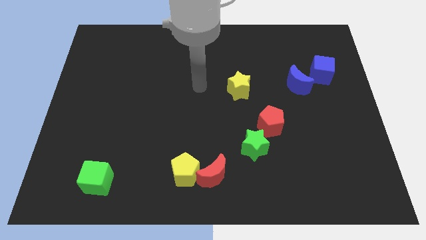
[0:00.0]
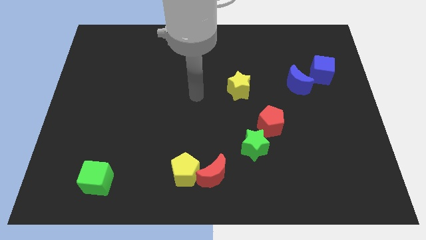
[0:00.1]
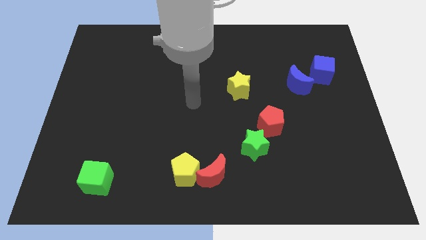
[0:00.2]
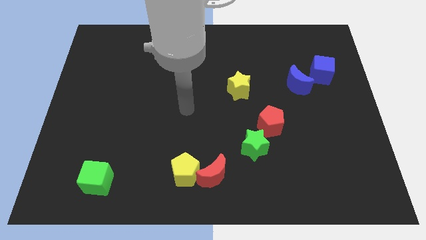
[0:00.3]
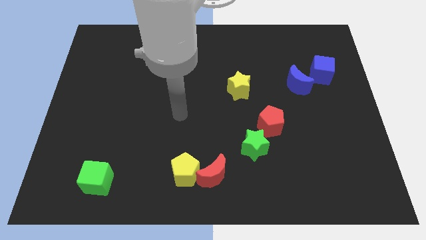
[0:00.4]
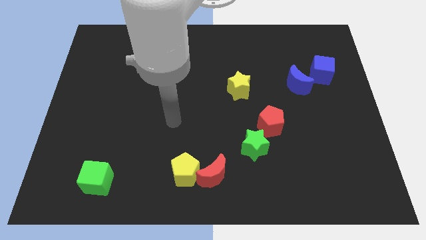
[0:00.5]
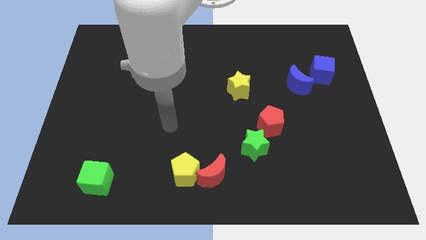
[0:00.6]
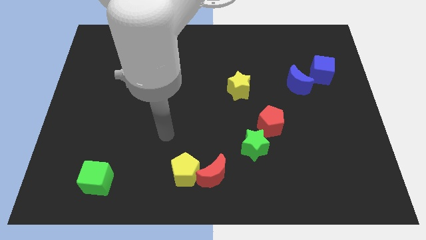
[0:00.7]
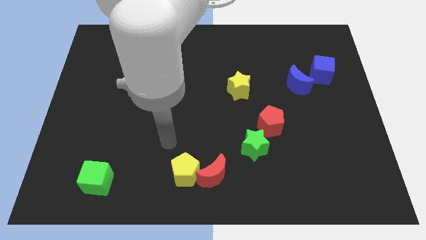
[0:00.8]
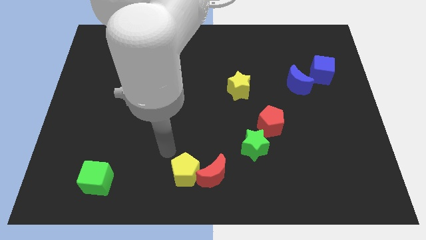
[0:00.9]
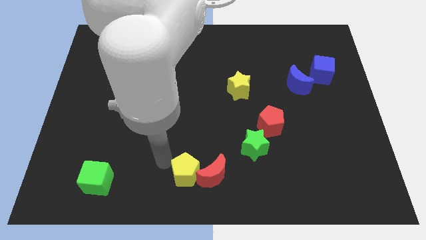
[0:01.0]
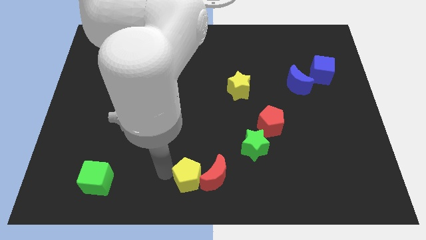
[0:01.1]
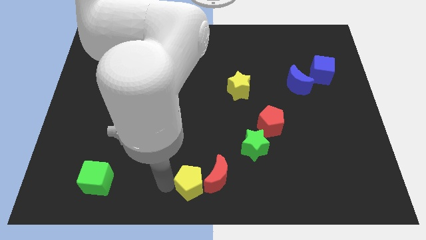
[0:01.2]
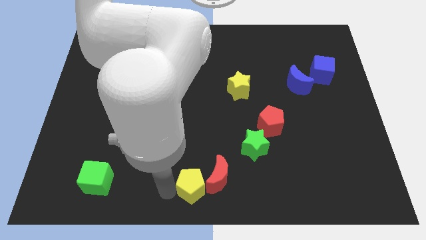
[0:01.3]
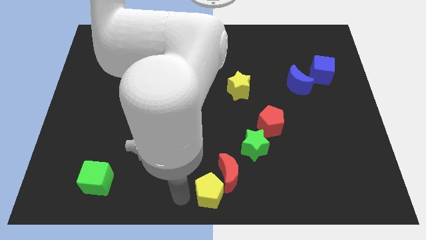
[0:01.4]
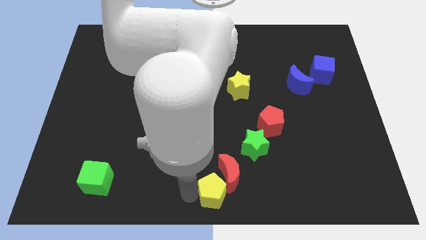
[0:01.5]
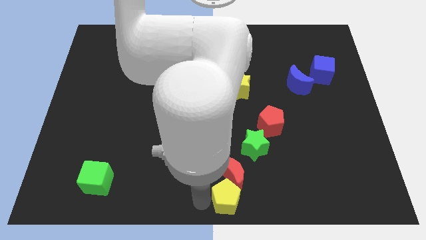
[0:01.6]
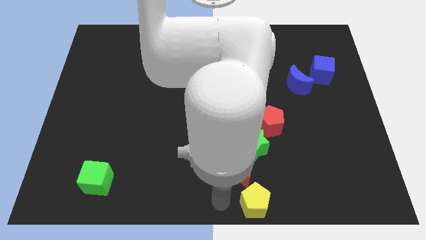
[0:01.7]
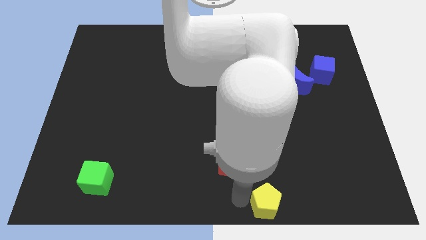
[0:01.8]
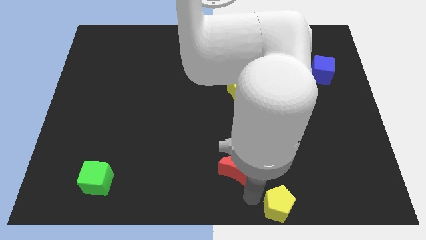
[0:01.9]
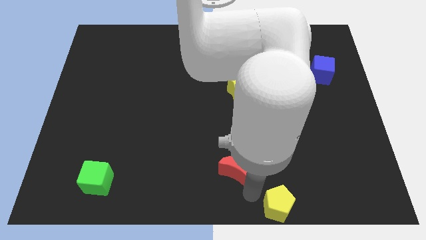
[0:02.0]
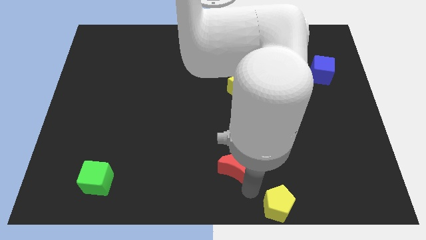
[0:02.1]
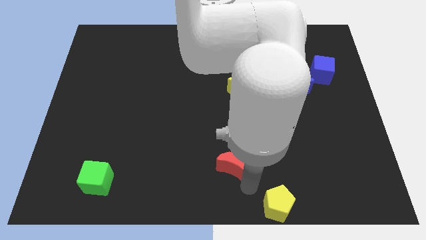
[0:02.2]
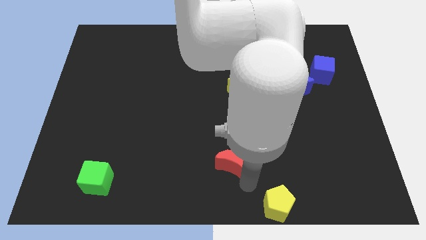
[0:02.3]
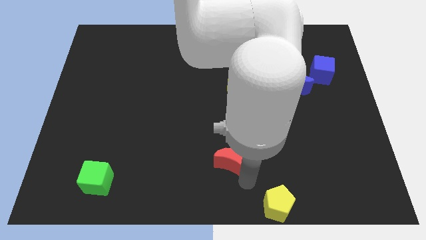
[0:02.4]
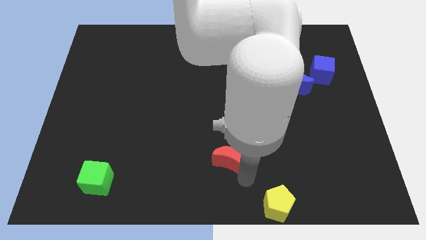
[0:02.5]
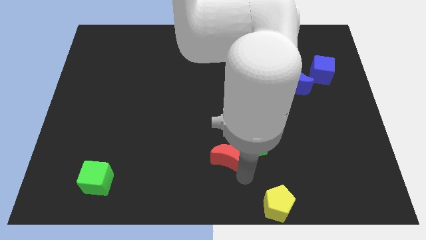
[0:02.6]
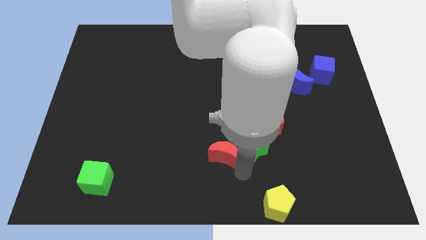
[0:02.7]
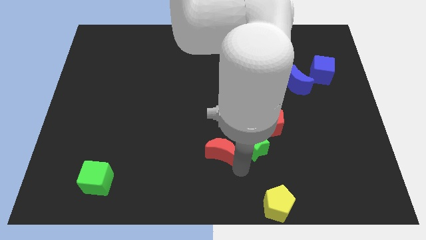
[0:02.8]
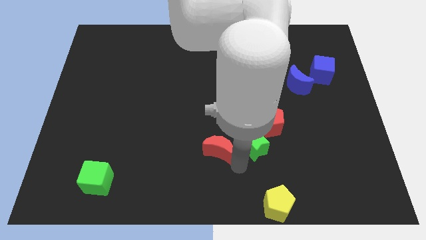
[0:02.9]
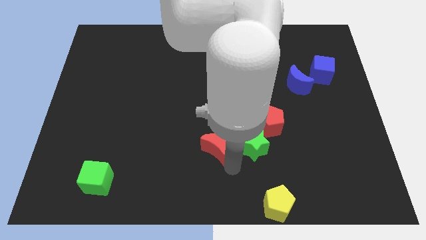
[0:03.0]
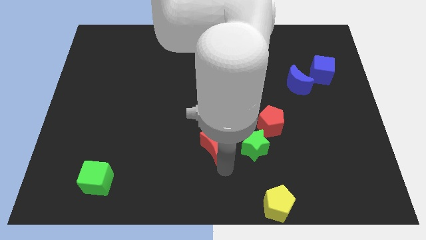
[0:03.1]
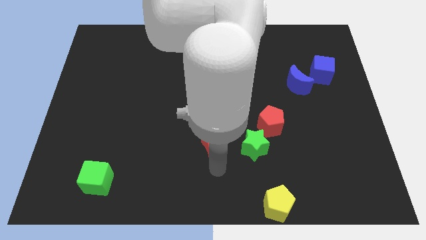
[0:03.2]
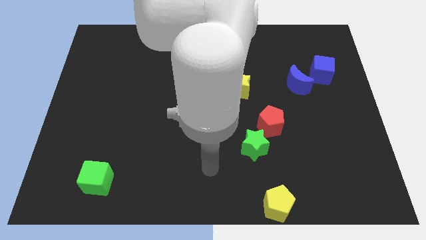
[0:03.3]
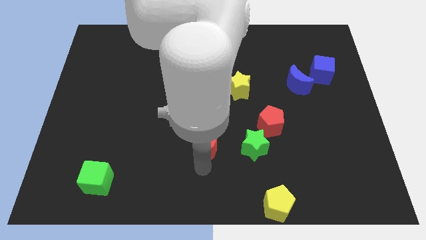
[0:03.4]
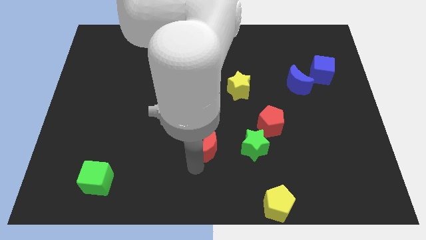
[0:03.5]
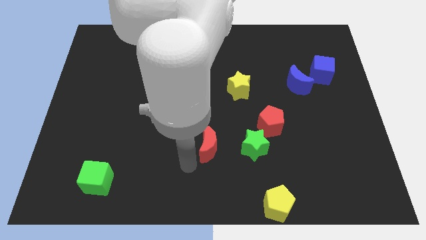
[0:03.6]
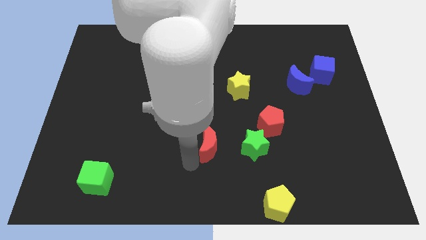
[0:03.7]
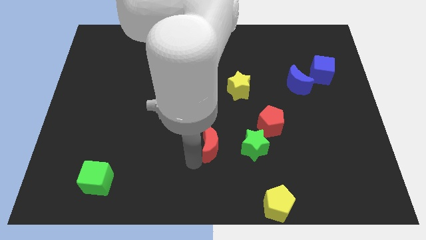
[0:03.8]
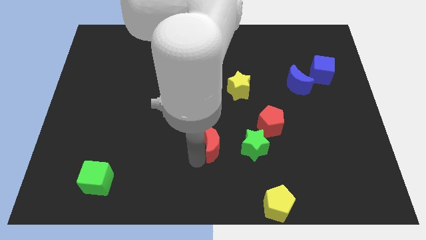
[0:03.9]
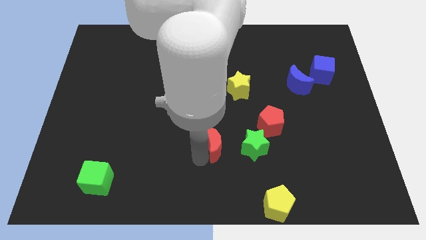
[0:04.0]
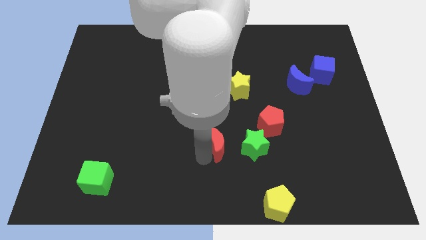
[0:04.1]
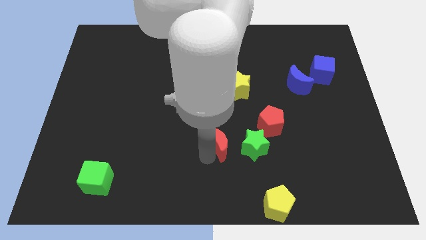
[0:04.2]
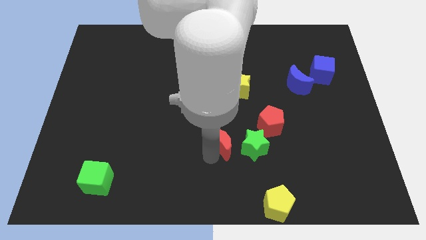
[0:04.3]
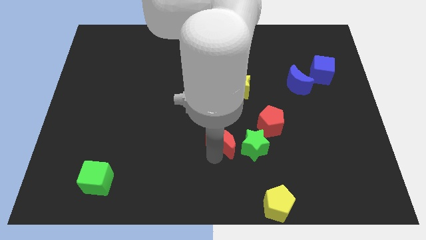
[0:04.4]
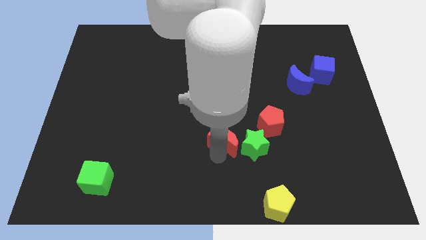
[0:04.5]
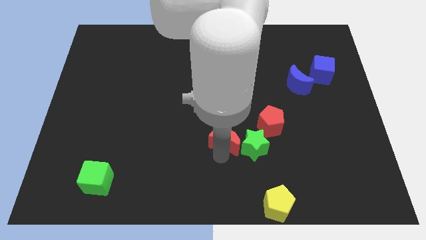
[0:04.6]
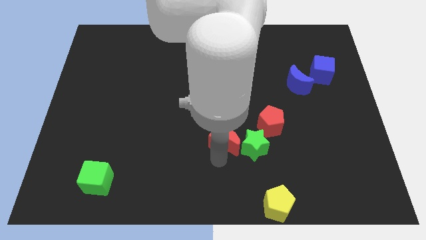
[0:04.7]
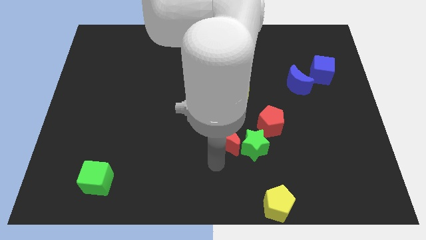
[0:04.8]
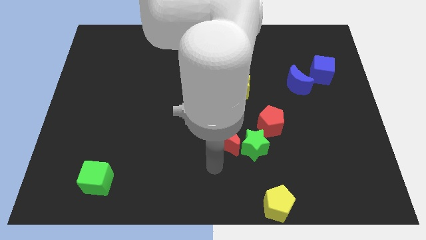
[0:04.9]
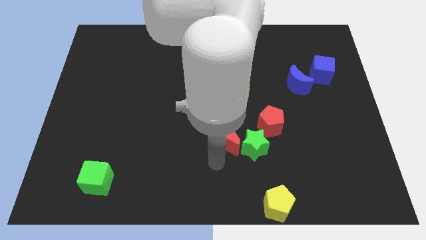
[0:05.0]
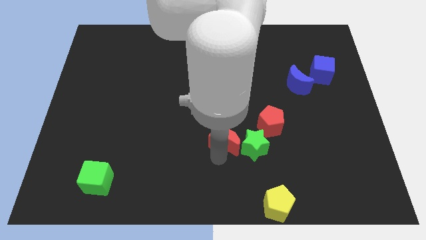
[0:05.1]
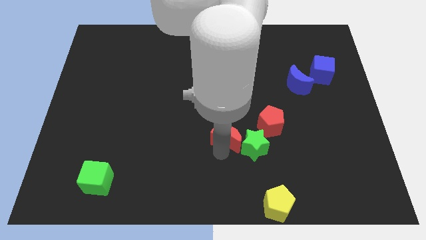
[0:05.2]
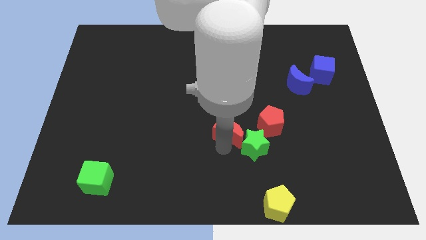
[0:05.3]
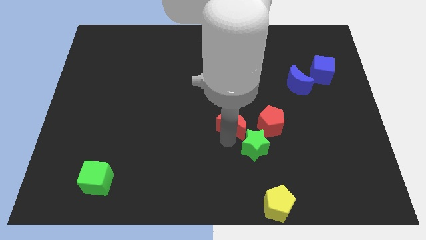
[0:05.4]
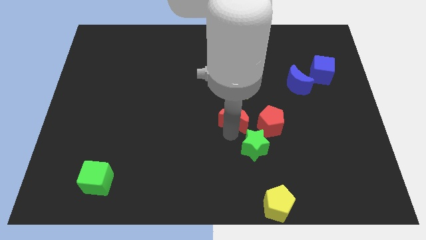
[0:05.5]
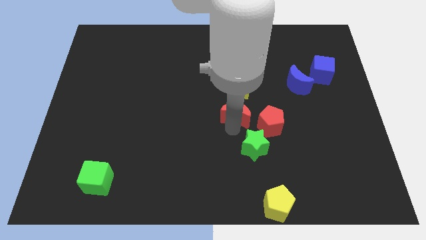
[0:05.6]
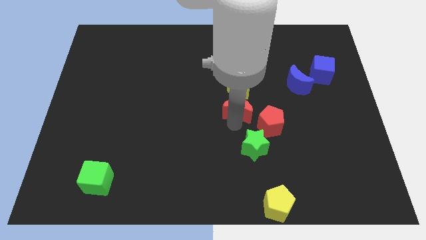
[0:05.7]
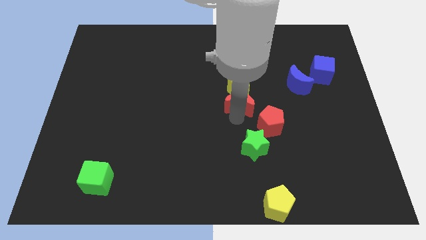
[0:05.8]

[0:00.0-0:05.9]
push the red moon to the yellow star
